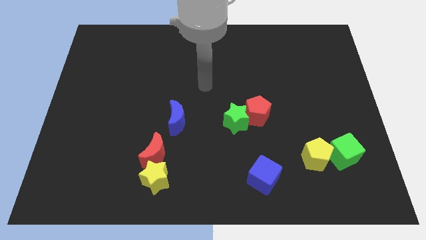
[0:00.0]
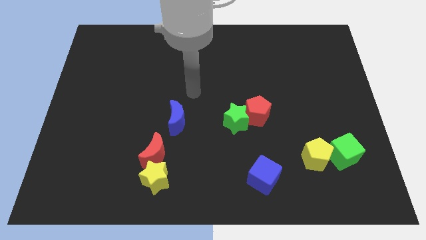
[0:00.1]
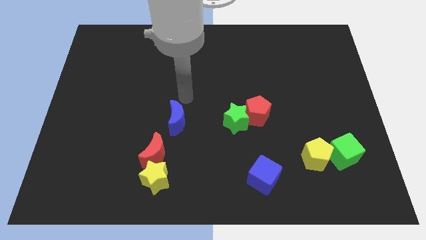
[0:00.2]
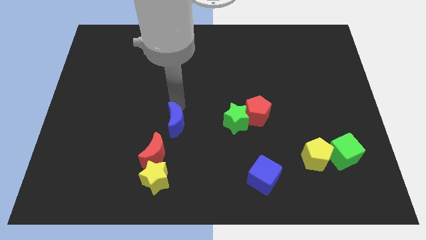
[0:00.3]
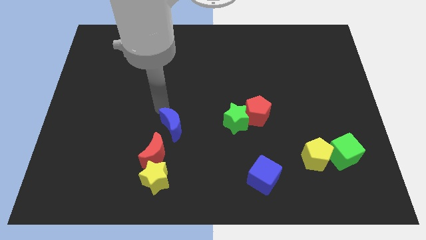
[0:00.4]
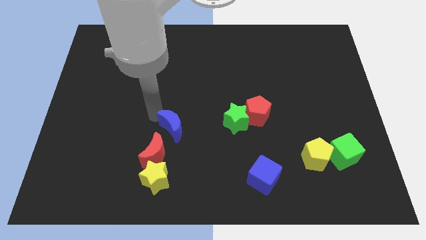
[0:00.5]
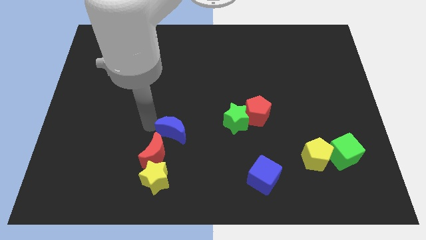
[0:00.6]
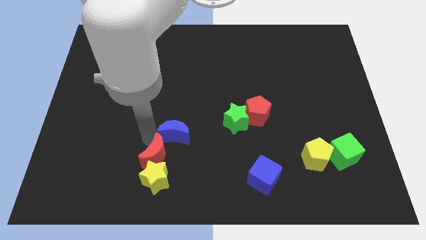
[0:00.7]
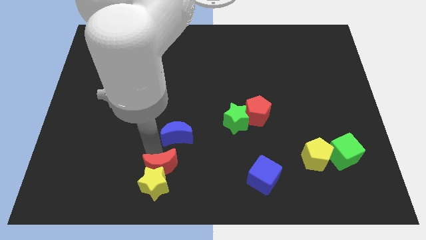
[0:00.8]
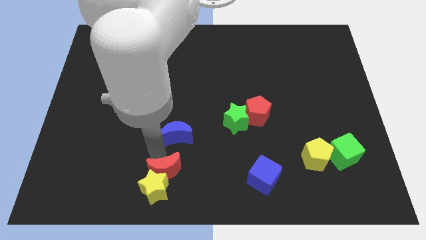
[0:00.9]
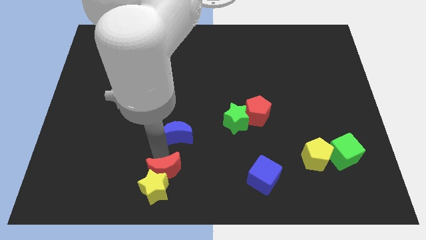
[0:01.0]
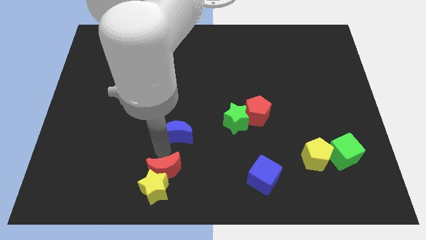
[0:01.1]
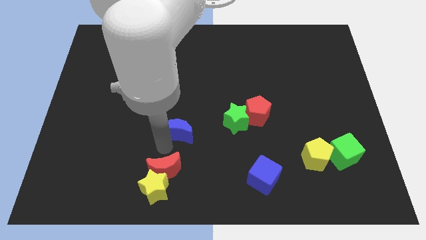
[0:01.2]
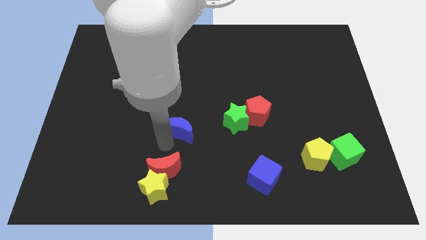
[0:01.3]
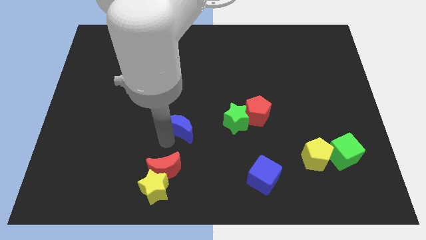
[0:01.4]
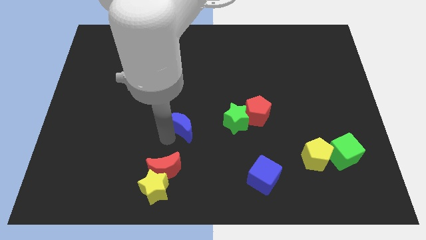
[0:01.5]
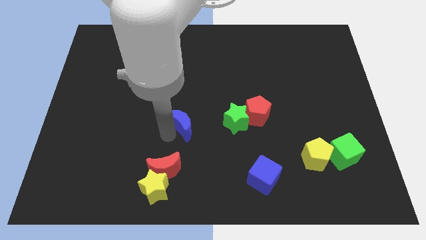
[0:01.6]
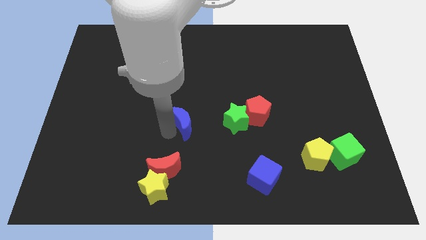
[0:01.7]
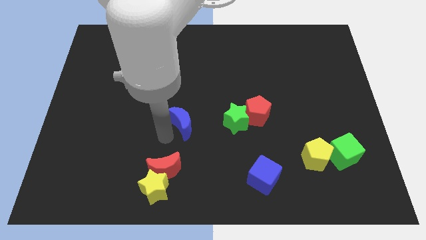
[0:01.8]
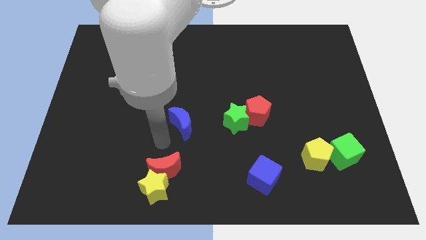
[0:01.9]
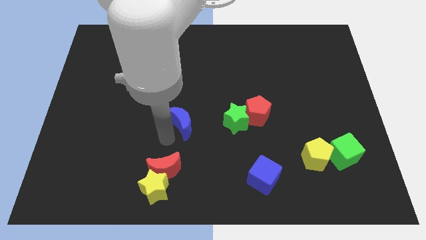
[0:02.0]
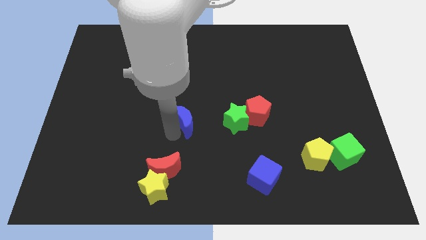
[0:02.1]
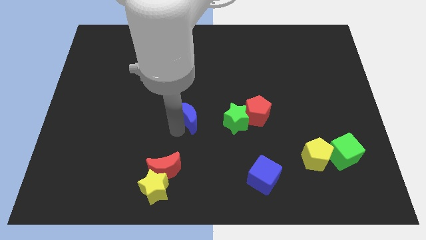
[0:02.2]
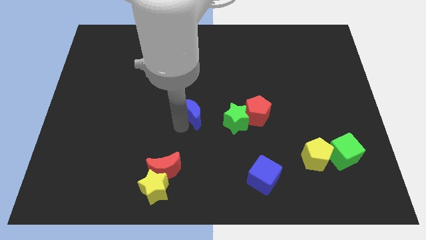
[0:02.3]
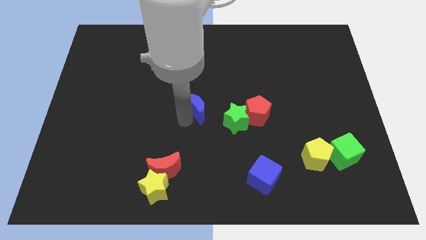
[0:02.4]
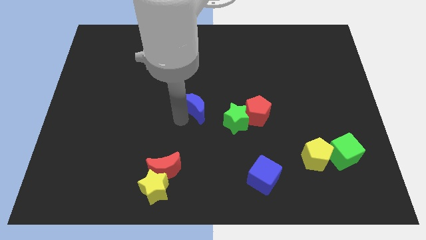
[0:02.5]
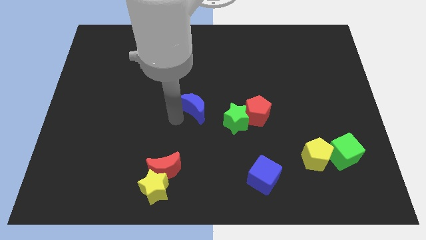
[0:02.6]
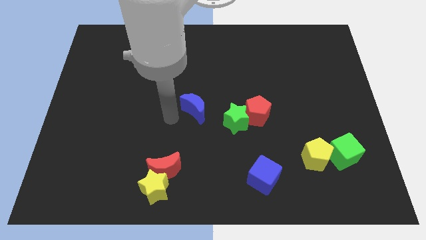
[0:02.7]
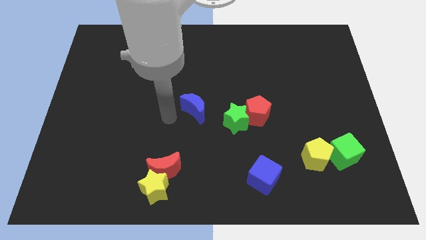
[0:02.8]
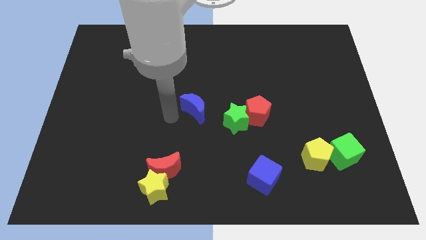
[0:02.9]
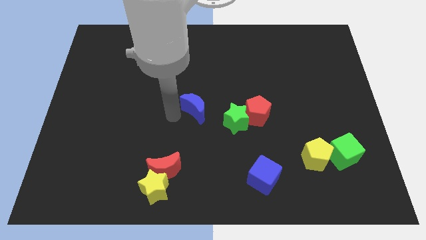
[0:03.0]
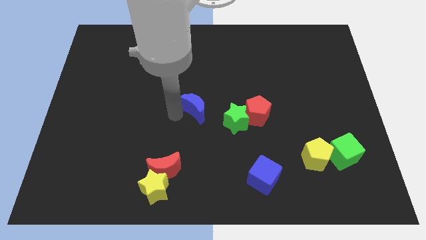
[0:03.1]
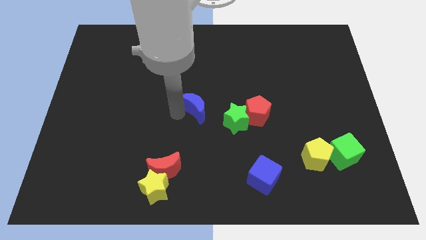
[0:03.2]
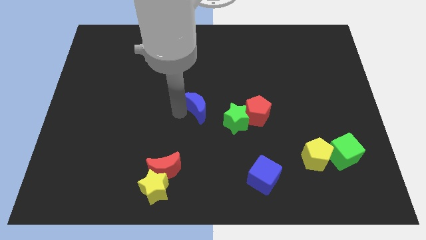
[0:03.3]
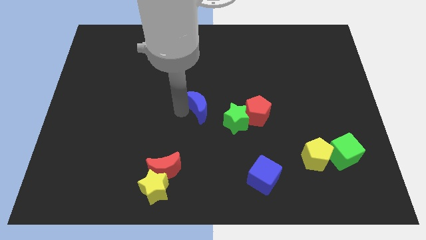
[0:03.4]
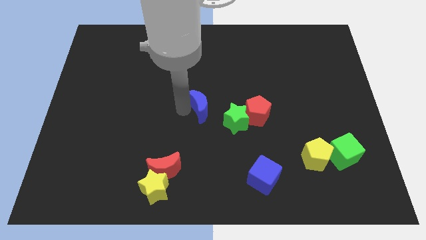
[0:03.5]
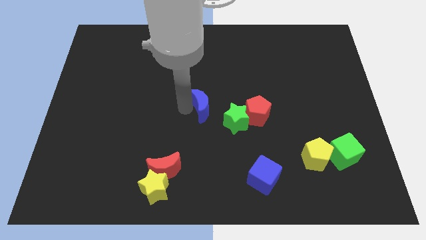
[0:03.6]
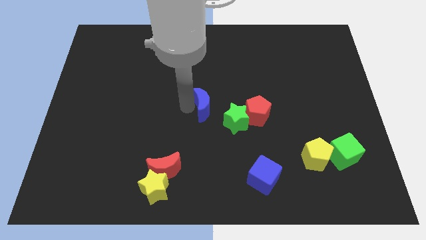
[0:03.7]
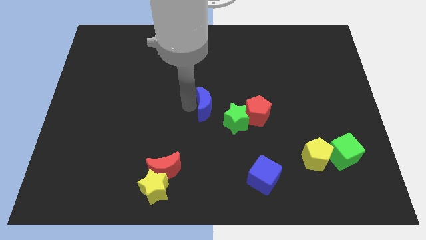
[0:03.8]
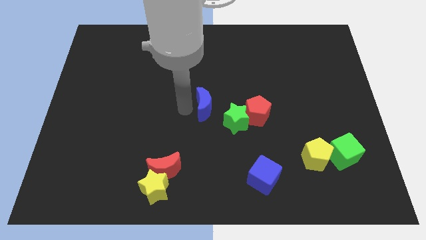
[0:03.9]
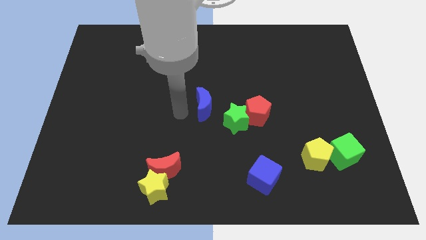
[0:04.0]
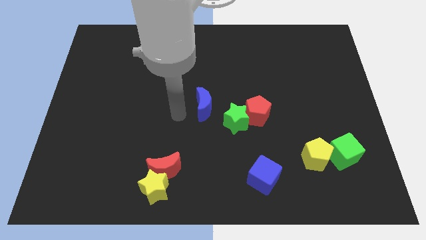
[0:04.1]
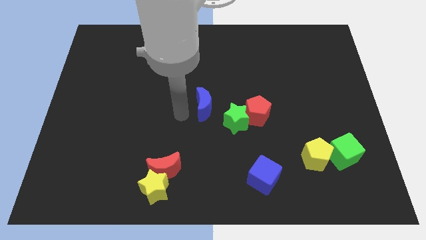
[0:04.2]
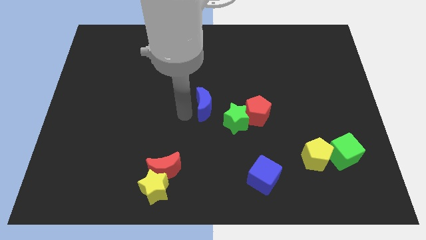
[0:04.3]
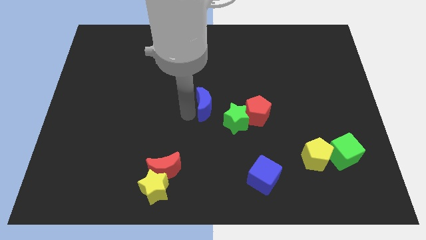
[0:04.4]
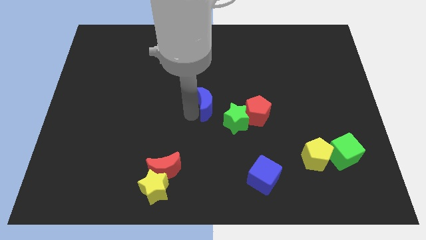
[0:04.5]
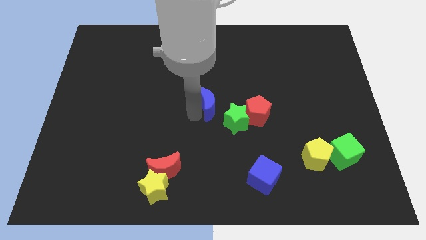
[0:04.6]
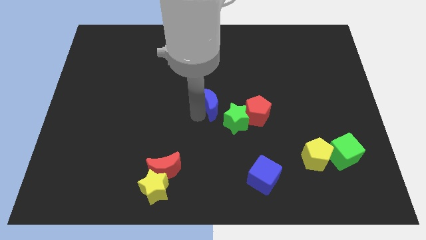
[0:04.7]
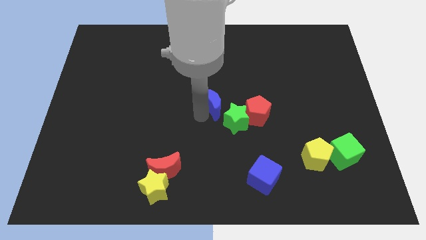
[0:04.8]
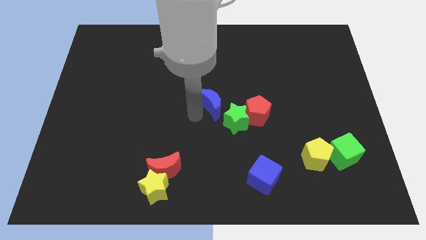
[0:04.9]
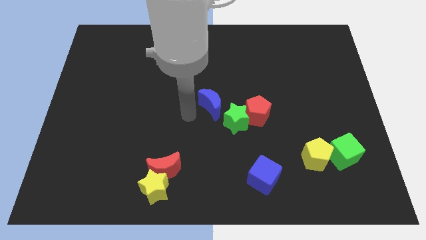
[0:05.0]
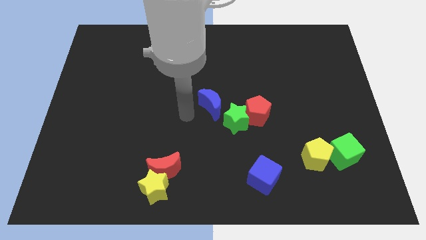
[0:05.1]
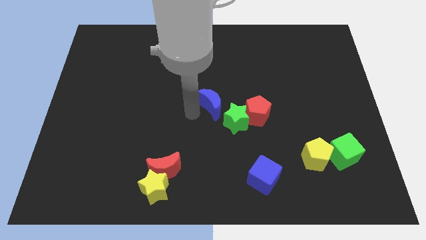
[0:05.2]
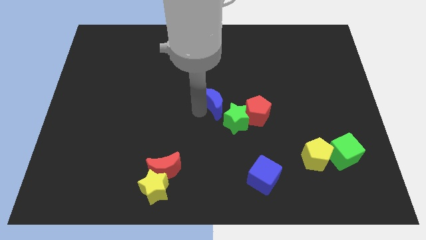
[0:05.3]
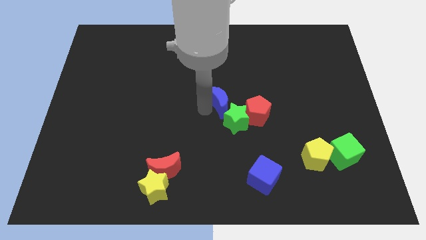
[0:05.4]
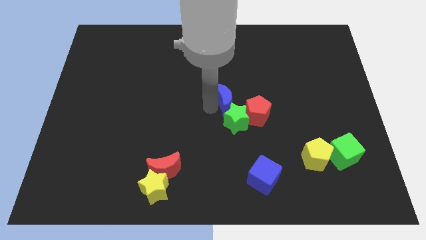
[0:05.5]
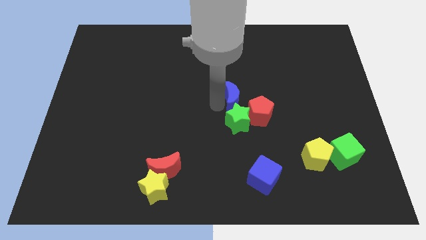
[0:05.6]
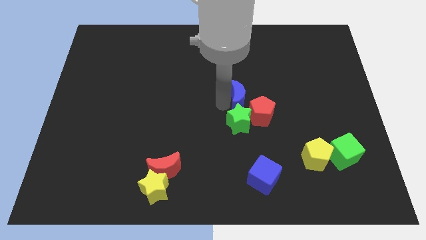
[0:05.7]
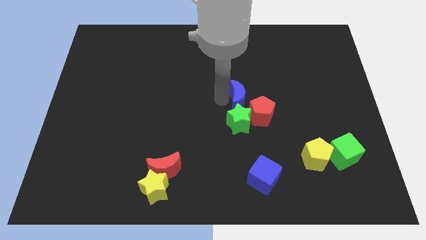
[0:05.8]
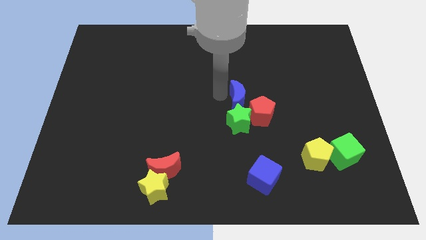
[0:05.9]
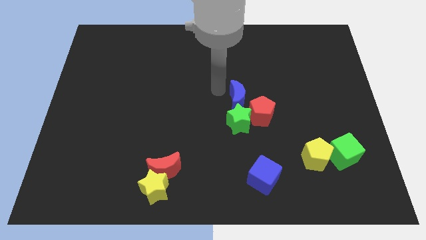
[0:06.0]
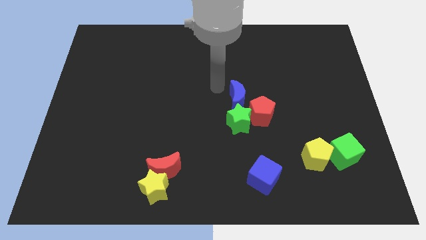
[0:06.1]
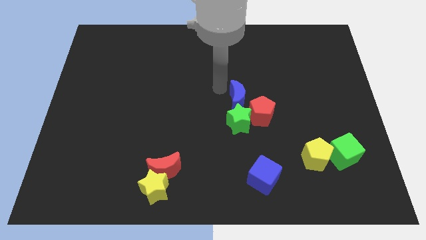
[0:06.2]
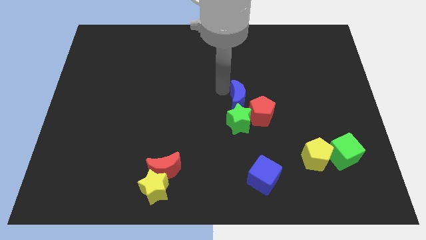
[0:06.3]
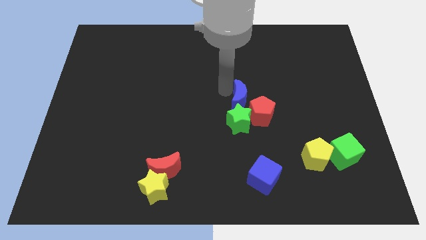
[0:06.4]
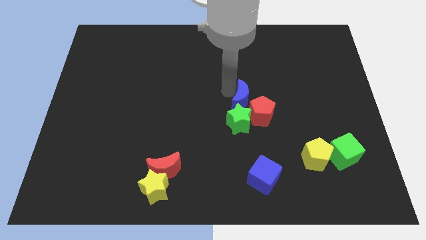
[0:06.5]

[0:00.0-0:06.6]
slide the blue moon towards the red pentagon
